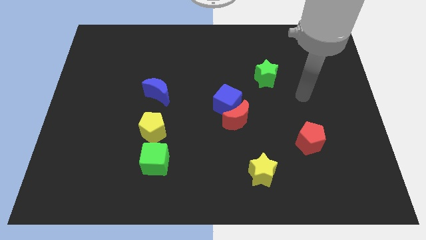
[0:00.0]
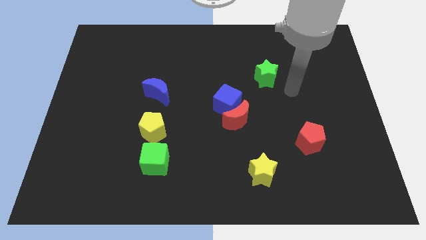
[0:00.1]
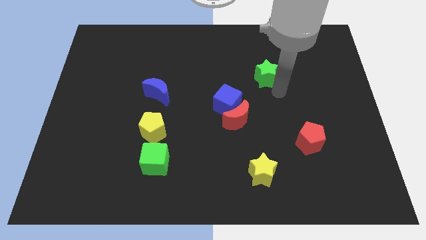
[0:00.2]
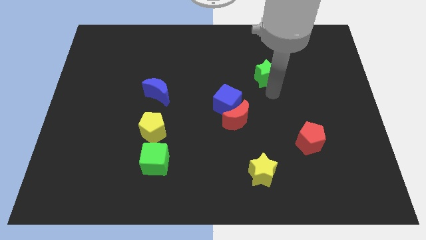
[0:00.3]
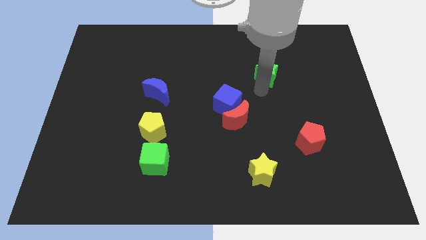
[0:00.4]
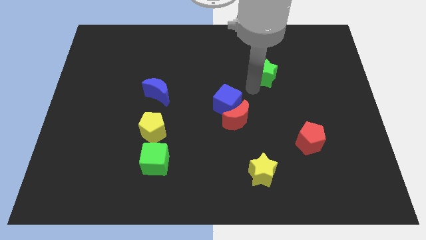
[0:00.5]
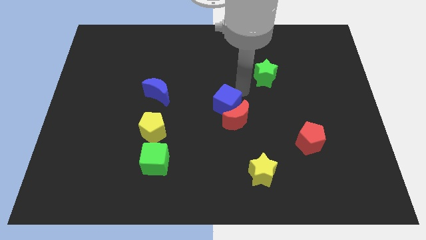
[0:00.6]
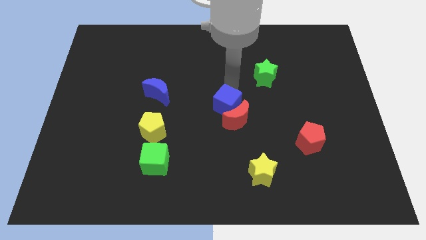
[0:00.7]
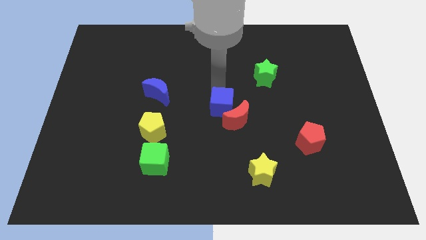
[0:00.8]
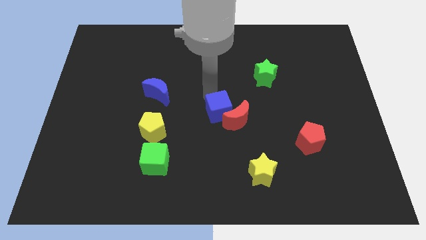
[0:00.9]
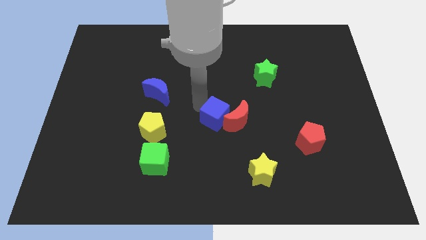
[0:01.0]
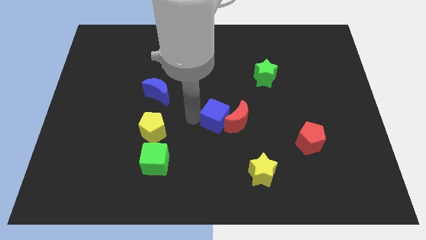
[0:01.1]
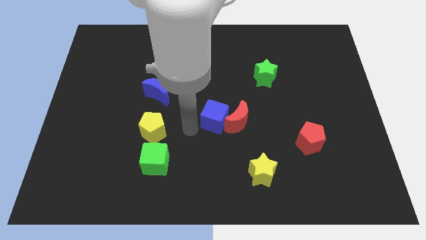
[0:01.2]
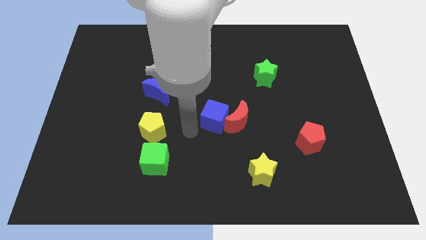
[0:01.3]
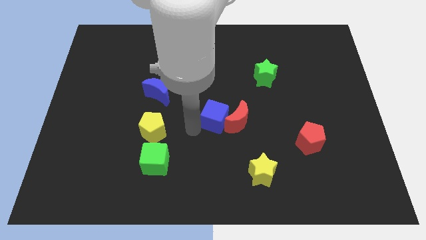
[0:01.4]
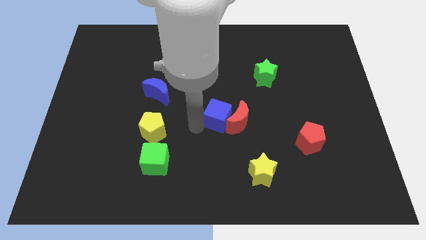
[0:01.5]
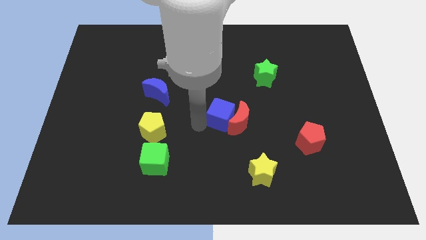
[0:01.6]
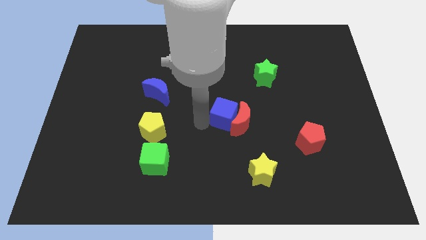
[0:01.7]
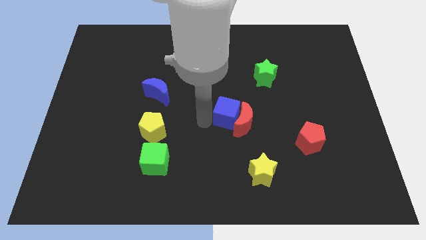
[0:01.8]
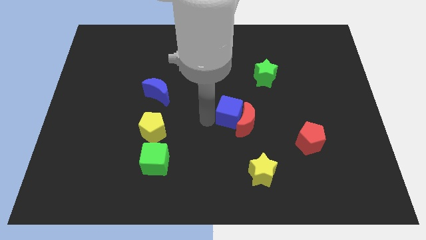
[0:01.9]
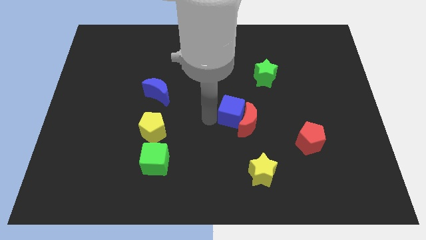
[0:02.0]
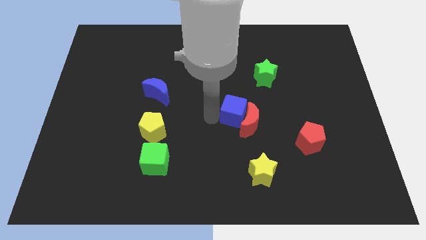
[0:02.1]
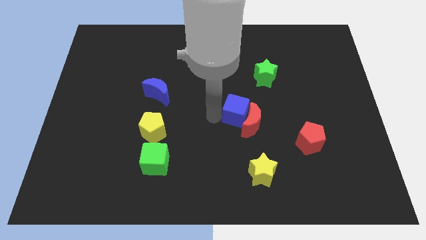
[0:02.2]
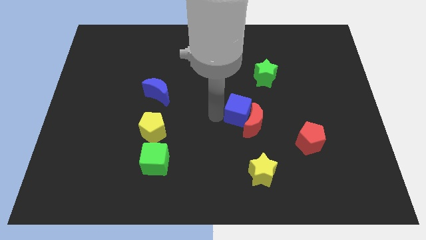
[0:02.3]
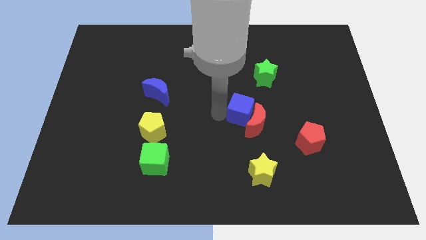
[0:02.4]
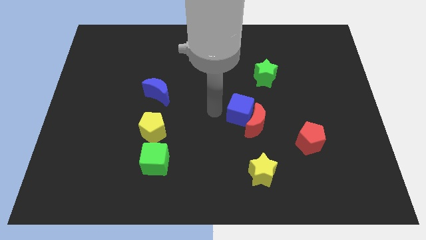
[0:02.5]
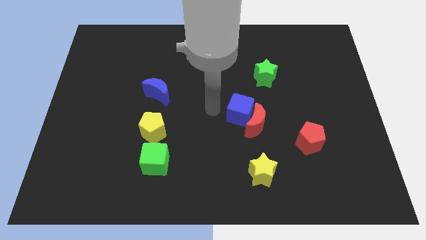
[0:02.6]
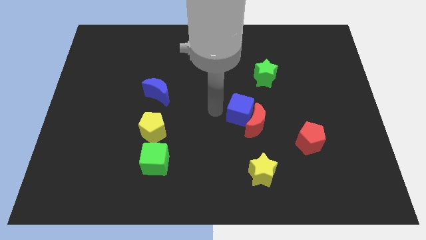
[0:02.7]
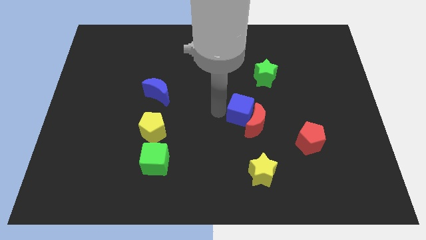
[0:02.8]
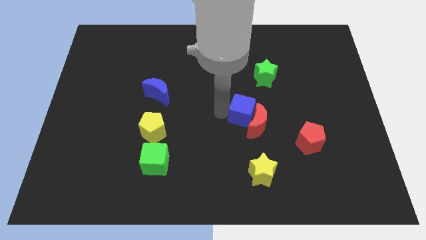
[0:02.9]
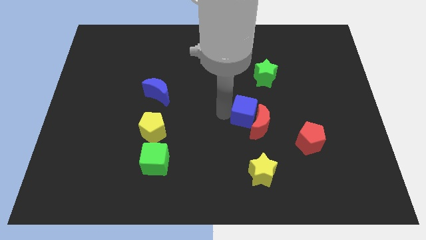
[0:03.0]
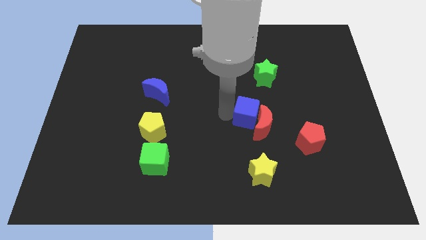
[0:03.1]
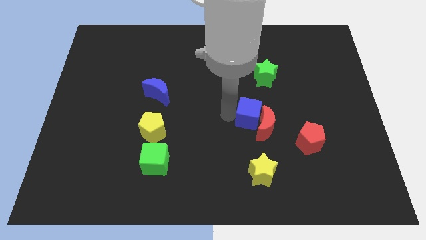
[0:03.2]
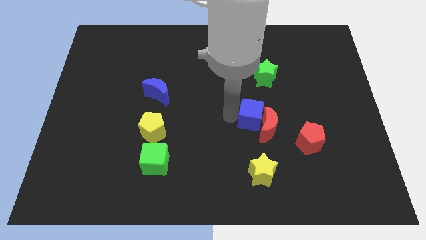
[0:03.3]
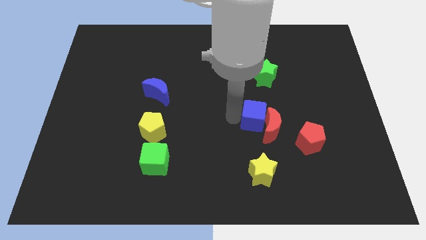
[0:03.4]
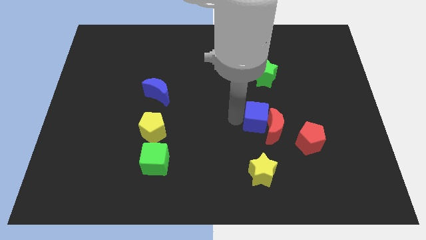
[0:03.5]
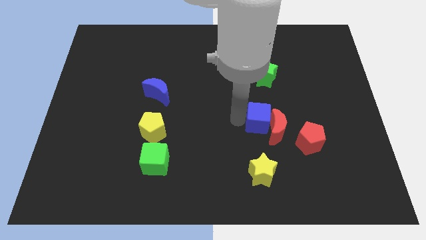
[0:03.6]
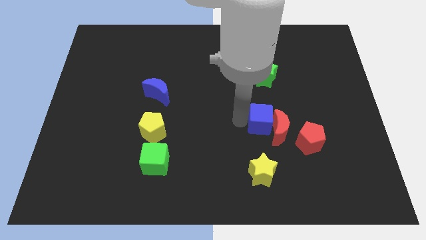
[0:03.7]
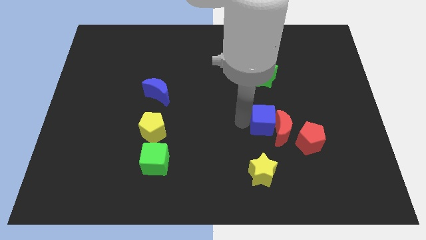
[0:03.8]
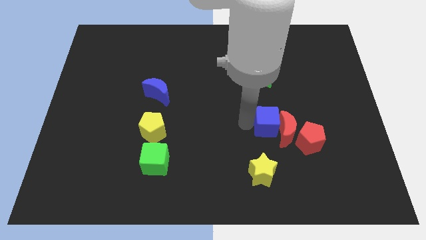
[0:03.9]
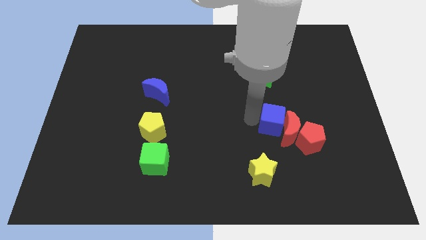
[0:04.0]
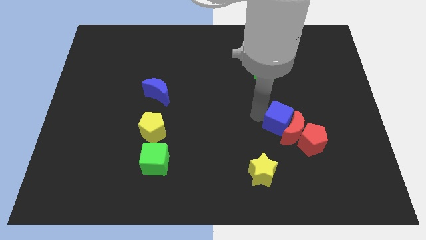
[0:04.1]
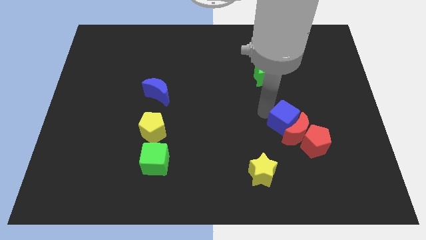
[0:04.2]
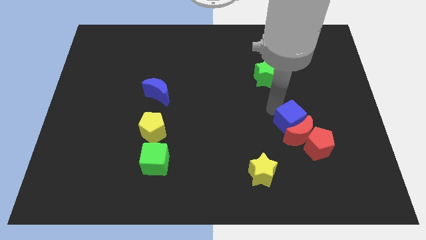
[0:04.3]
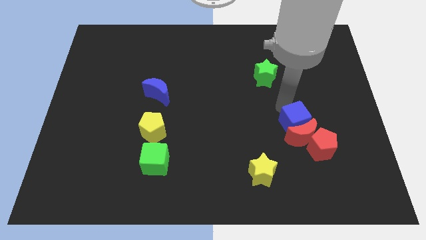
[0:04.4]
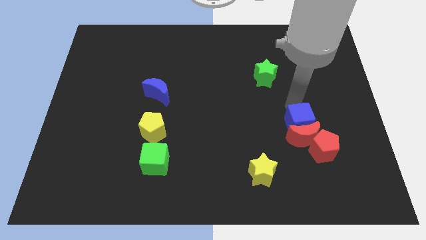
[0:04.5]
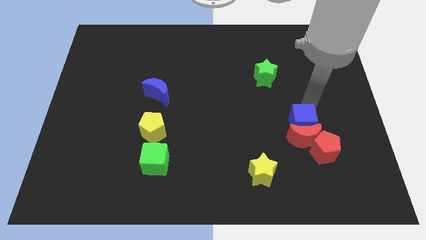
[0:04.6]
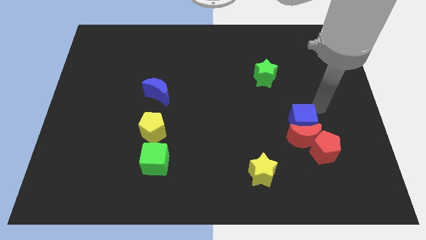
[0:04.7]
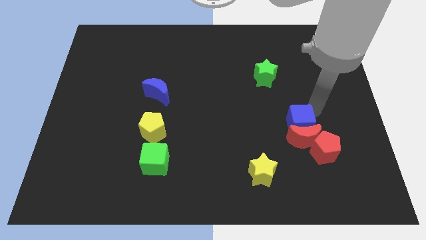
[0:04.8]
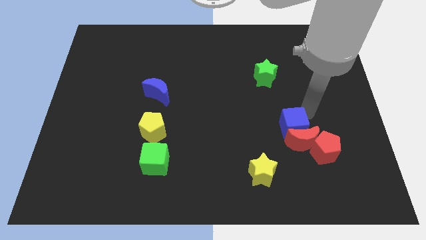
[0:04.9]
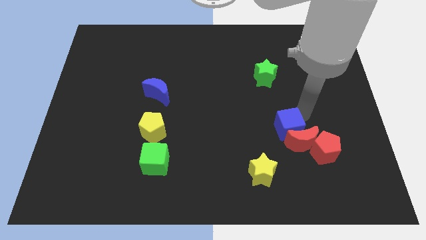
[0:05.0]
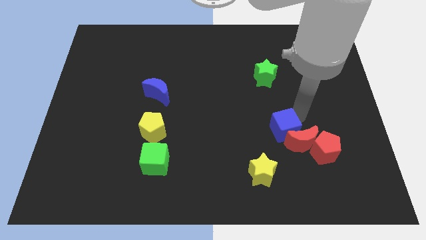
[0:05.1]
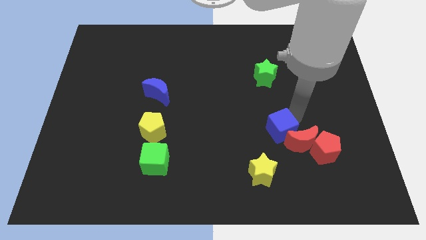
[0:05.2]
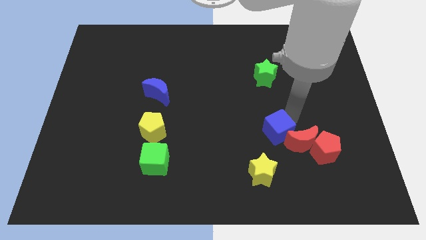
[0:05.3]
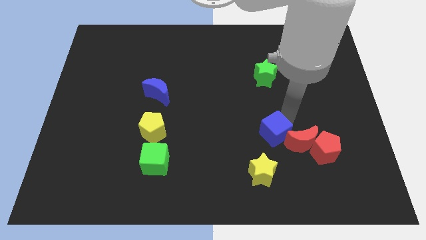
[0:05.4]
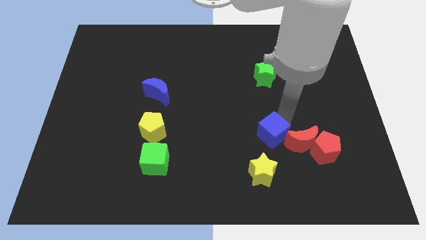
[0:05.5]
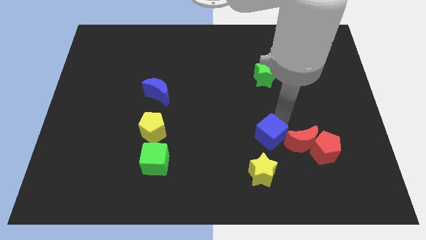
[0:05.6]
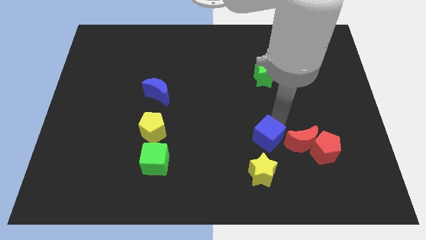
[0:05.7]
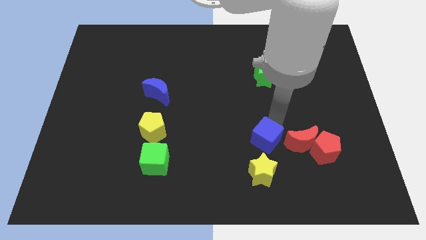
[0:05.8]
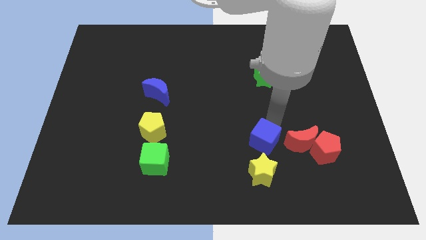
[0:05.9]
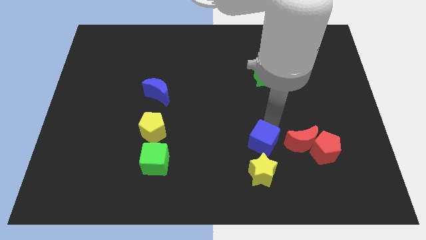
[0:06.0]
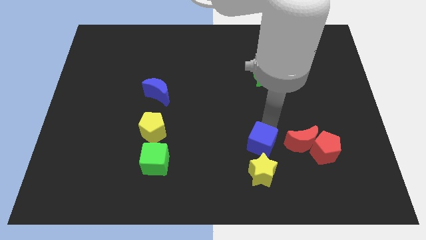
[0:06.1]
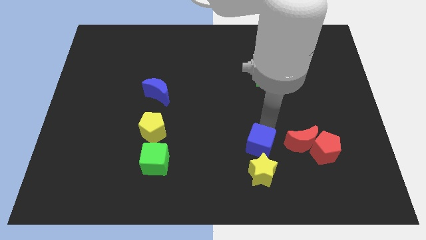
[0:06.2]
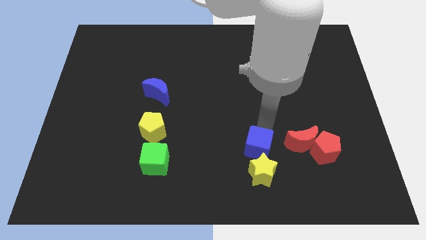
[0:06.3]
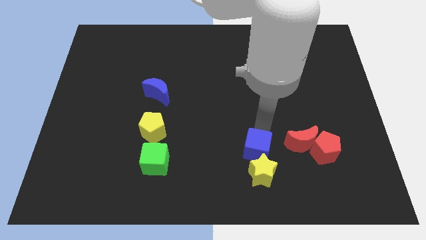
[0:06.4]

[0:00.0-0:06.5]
slide the blue cube towards the yellow star
